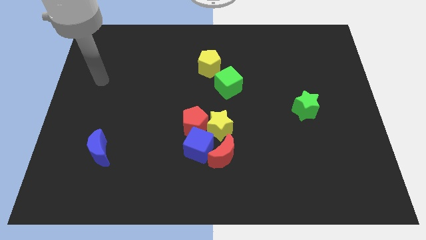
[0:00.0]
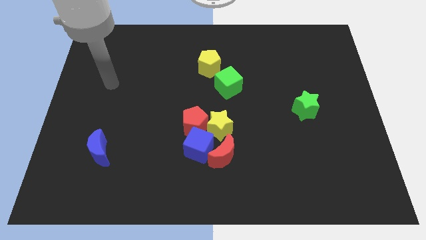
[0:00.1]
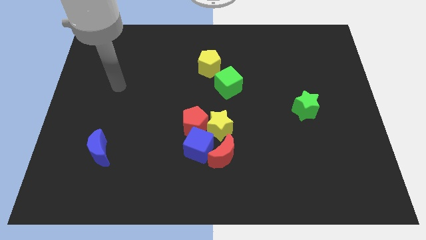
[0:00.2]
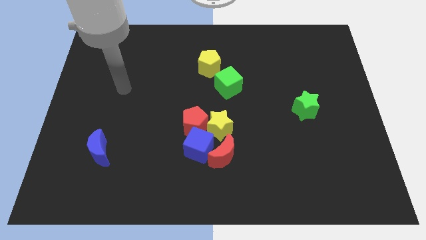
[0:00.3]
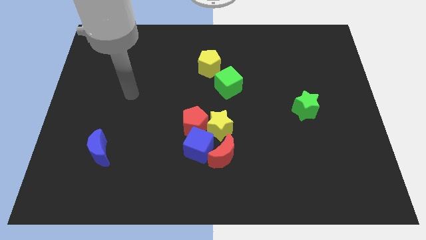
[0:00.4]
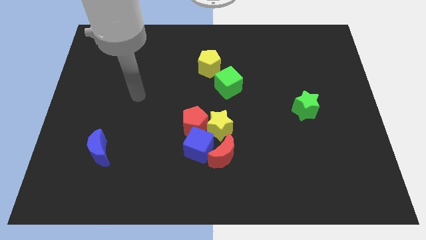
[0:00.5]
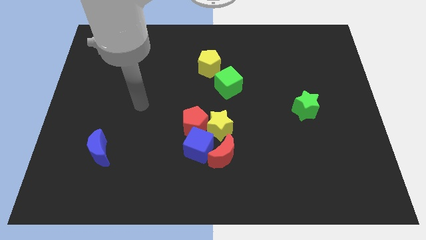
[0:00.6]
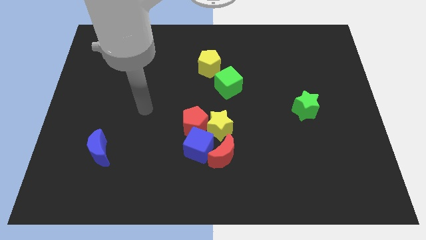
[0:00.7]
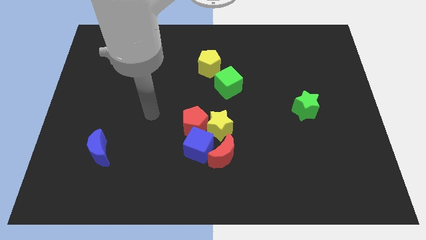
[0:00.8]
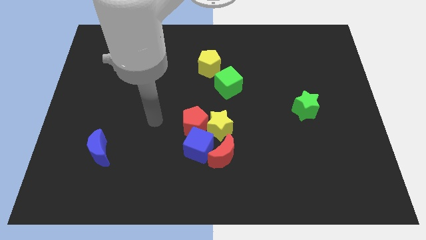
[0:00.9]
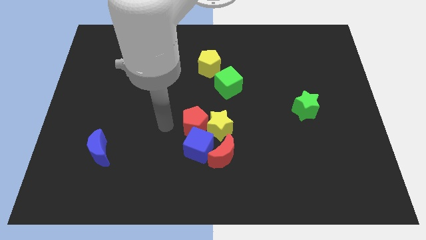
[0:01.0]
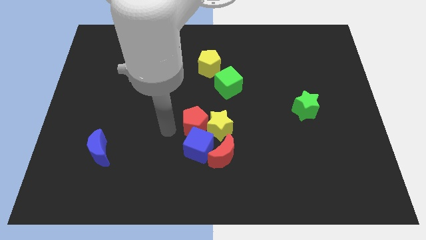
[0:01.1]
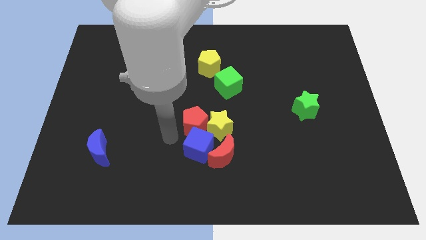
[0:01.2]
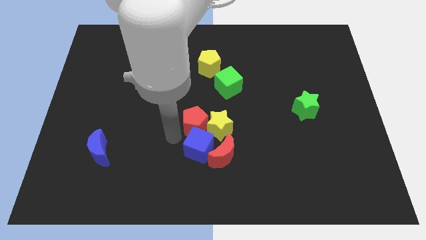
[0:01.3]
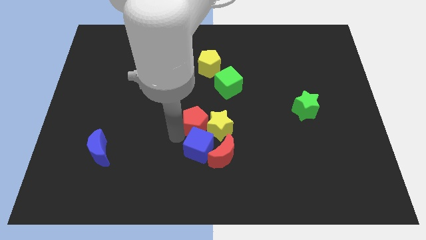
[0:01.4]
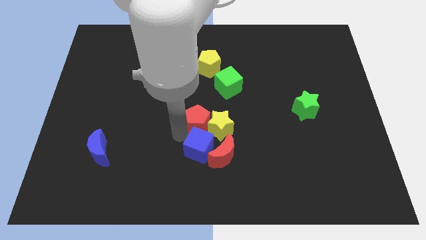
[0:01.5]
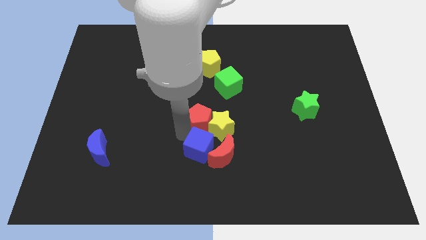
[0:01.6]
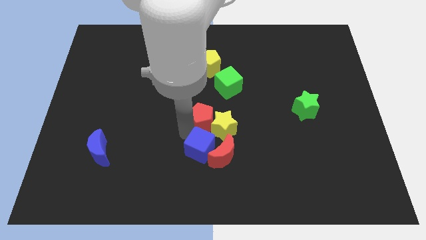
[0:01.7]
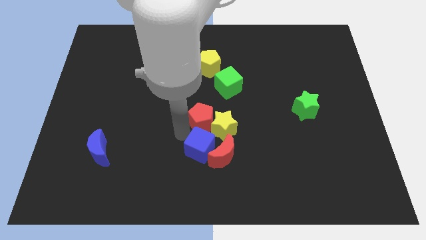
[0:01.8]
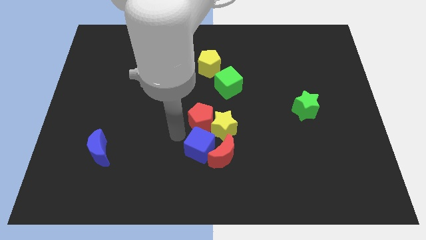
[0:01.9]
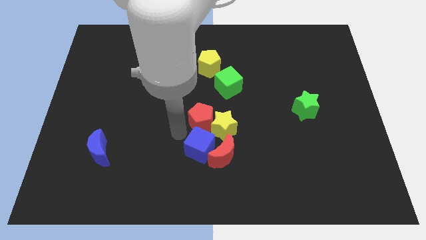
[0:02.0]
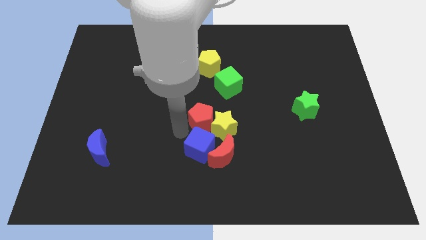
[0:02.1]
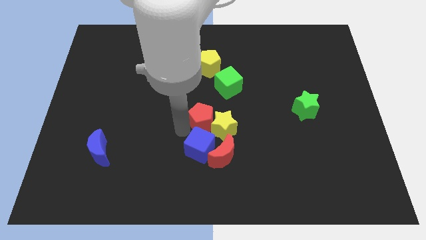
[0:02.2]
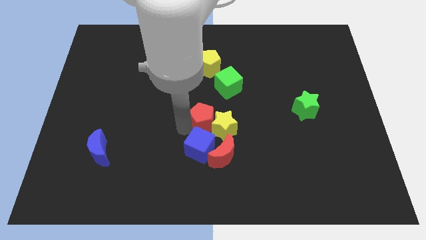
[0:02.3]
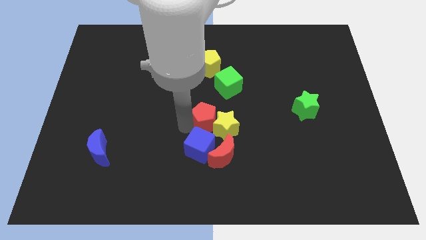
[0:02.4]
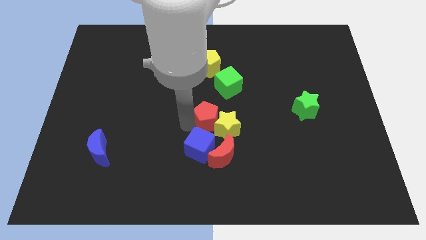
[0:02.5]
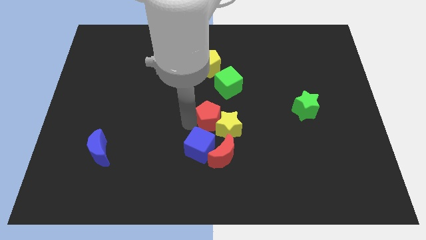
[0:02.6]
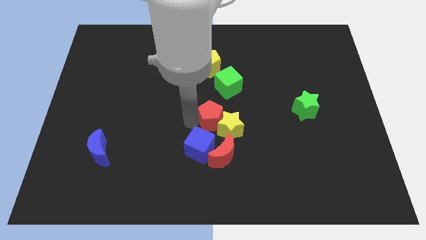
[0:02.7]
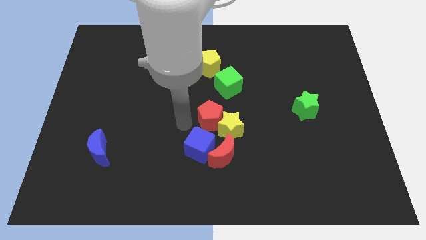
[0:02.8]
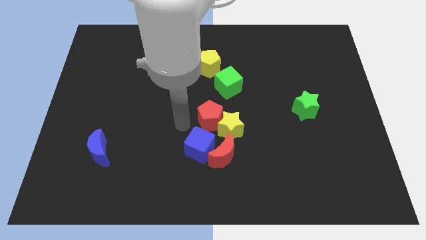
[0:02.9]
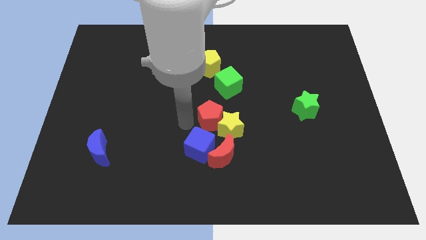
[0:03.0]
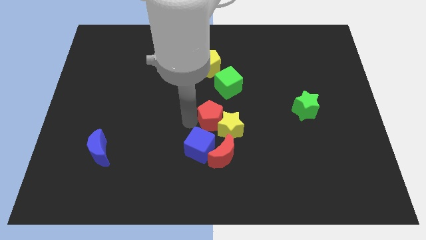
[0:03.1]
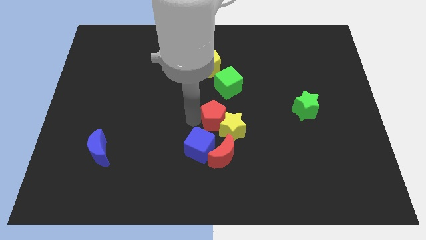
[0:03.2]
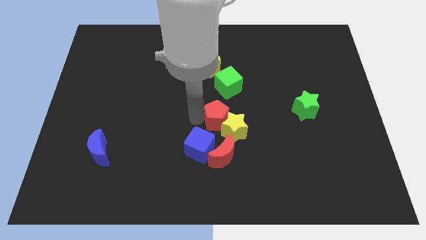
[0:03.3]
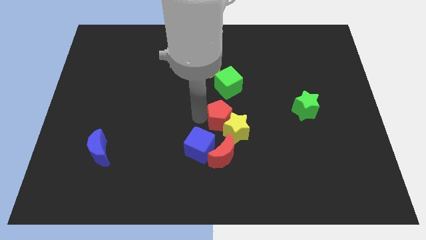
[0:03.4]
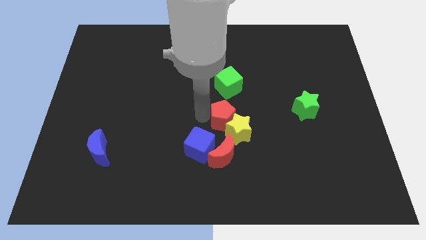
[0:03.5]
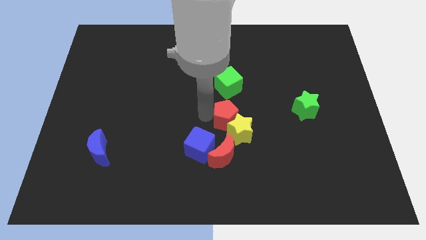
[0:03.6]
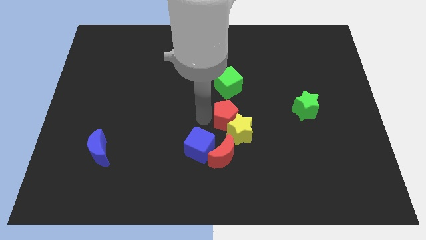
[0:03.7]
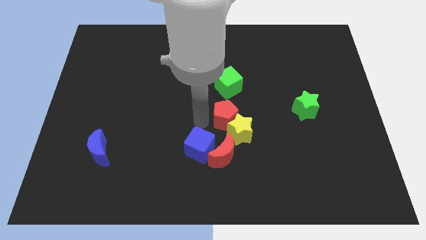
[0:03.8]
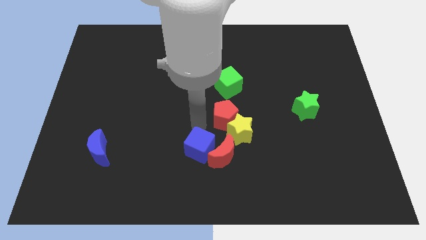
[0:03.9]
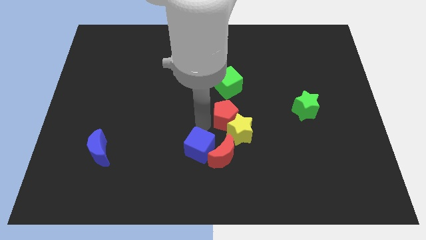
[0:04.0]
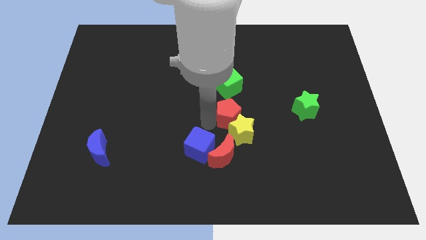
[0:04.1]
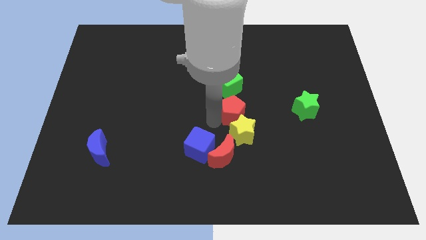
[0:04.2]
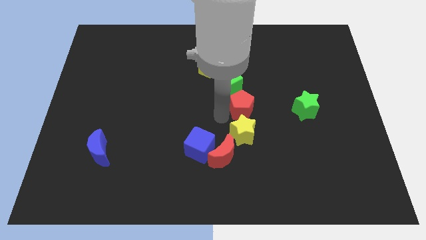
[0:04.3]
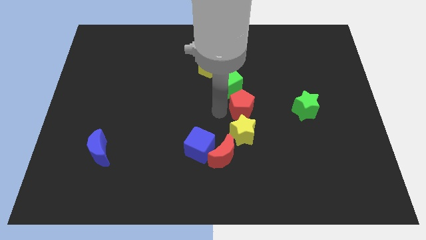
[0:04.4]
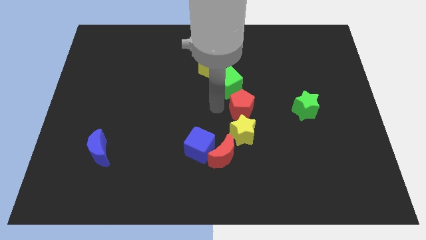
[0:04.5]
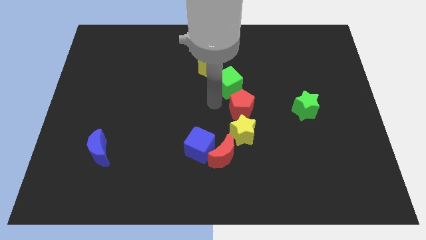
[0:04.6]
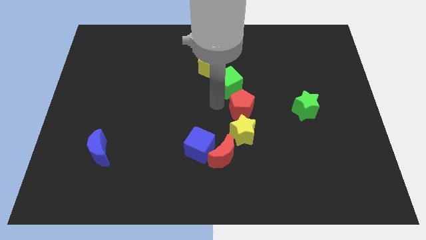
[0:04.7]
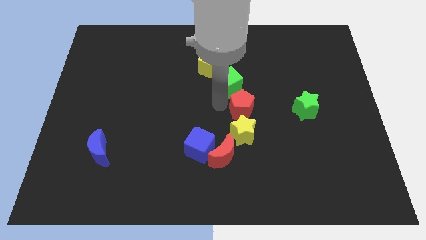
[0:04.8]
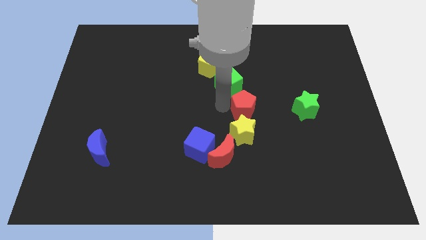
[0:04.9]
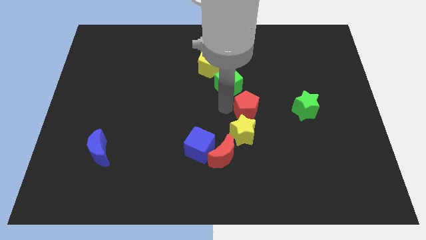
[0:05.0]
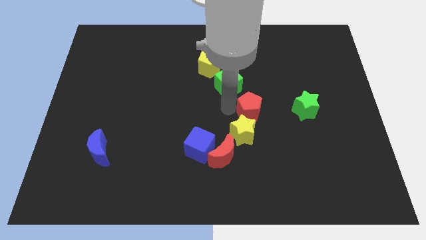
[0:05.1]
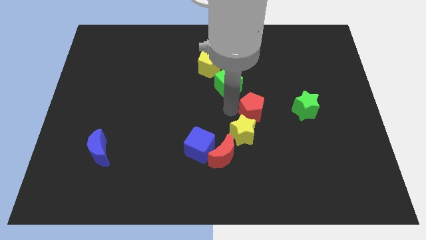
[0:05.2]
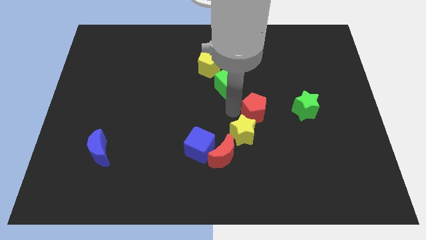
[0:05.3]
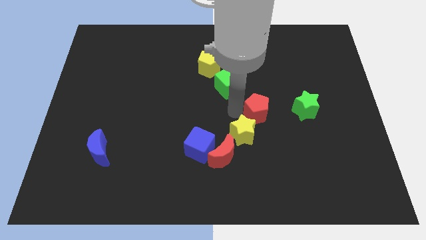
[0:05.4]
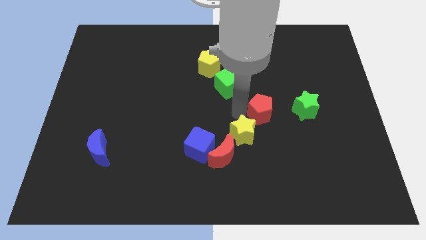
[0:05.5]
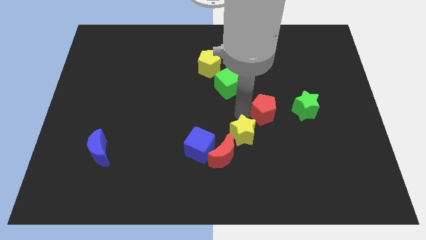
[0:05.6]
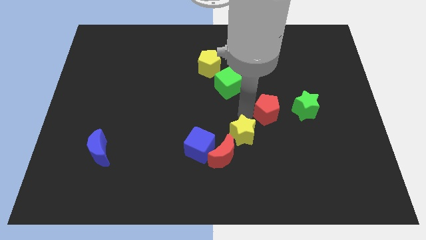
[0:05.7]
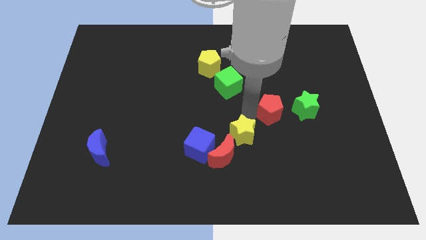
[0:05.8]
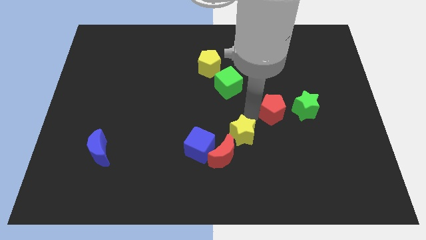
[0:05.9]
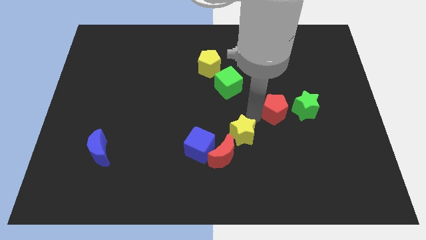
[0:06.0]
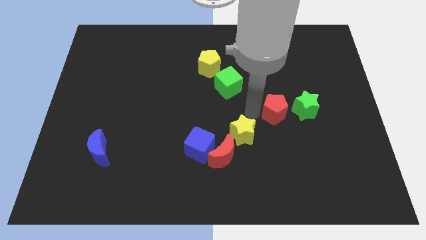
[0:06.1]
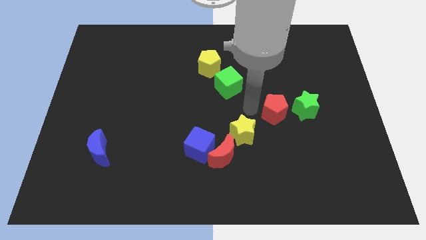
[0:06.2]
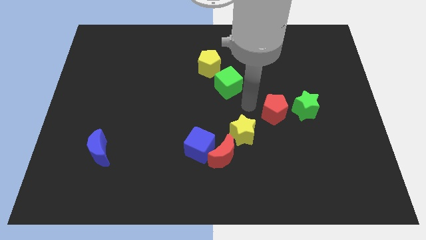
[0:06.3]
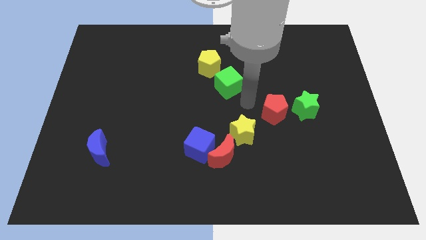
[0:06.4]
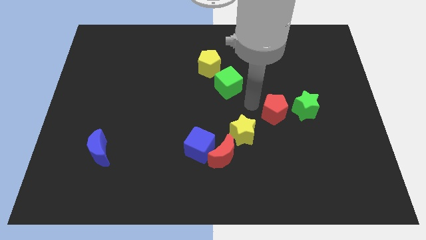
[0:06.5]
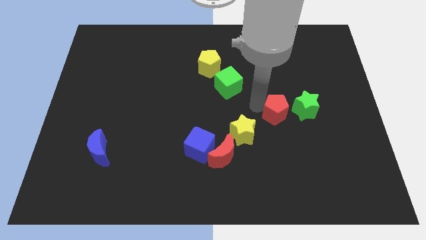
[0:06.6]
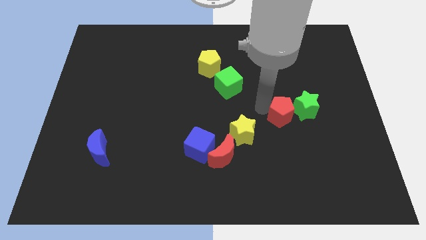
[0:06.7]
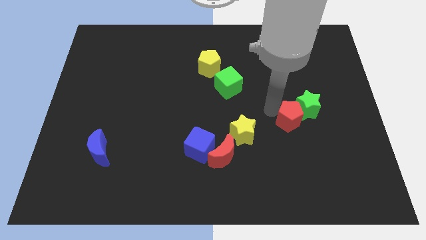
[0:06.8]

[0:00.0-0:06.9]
push the red pentagon to the right

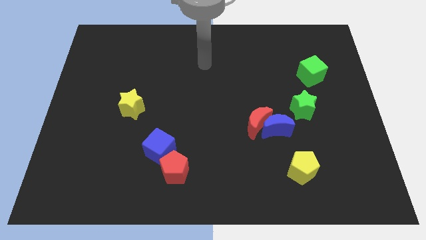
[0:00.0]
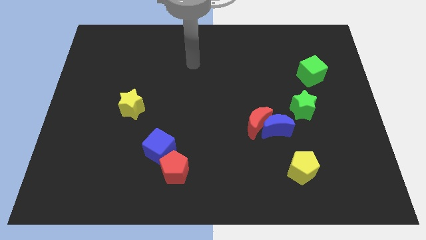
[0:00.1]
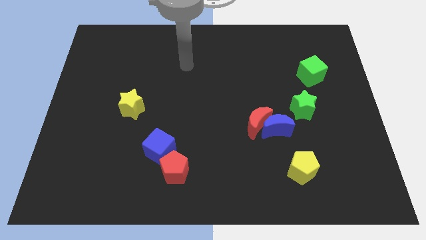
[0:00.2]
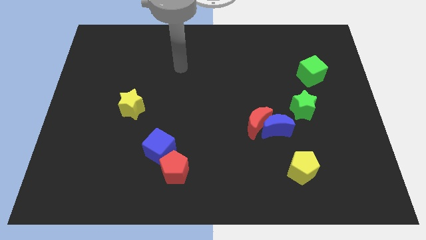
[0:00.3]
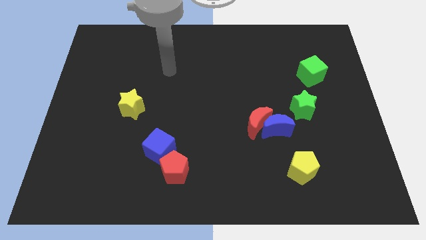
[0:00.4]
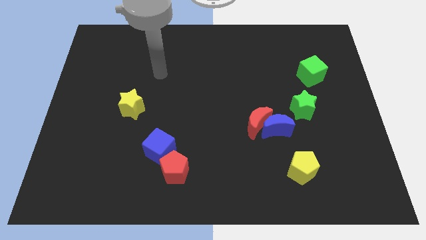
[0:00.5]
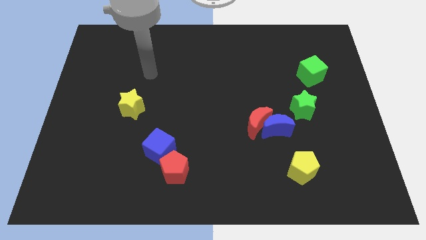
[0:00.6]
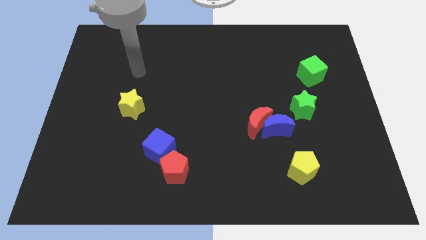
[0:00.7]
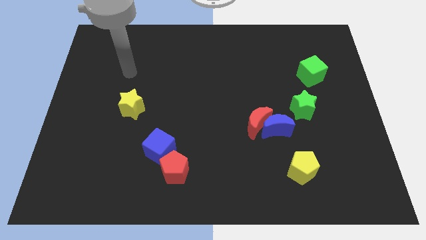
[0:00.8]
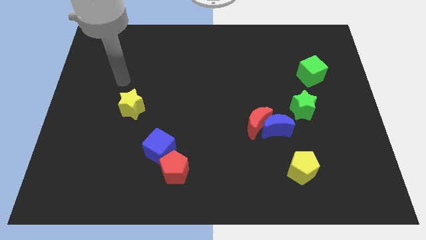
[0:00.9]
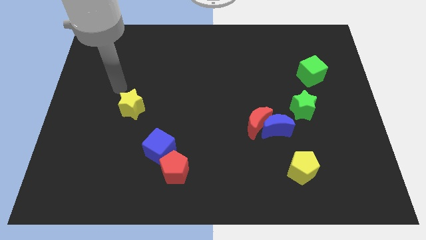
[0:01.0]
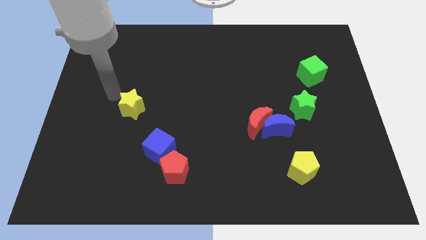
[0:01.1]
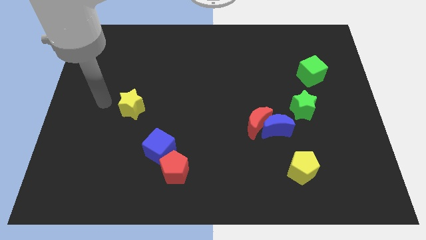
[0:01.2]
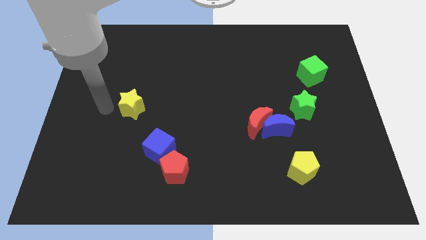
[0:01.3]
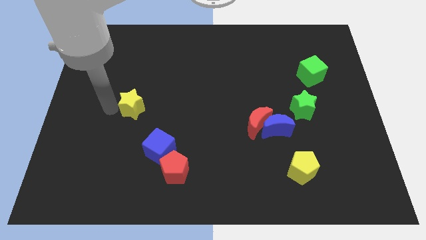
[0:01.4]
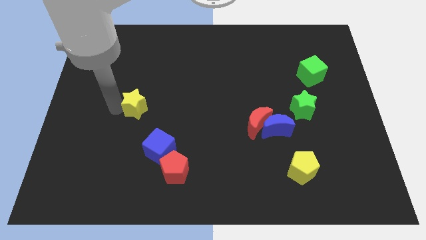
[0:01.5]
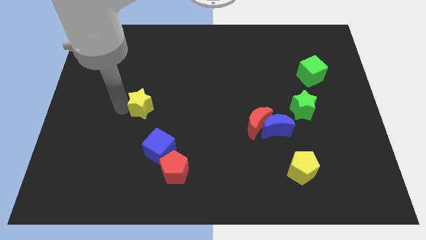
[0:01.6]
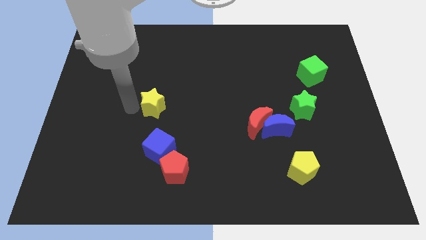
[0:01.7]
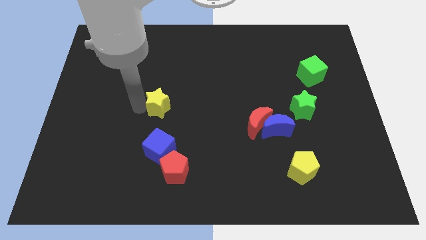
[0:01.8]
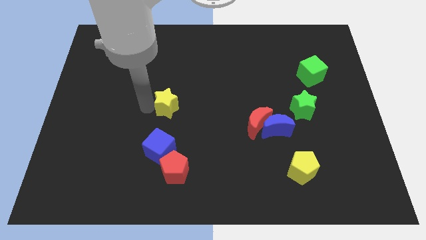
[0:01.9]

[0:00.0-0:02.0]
slide the yellow star right a little
